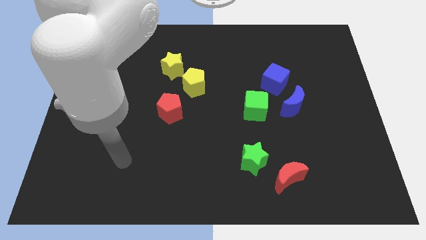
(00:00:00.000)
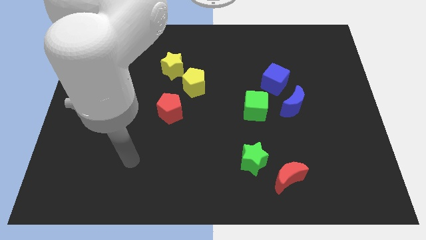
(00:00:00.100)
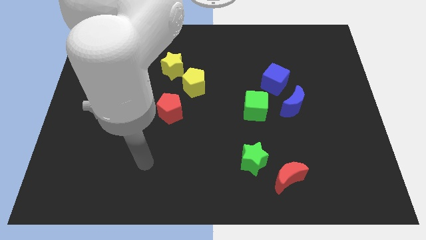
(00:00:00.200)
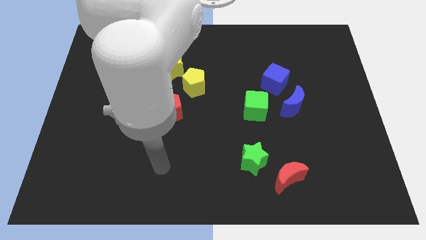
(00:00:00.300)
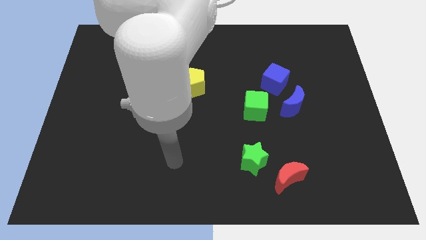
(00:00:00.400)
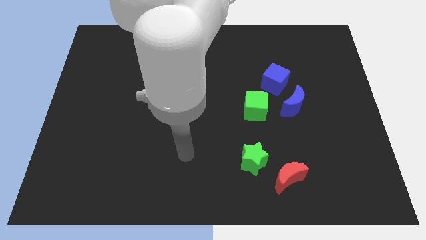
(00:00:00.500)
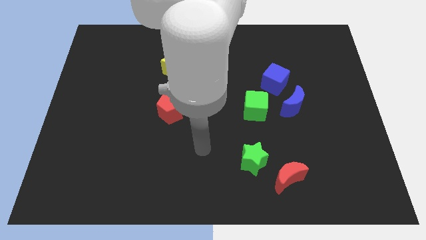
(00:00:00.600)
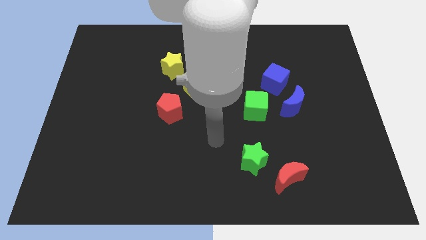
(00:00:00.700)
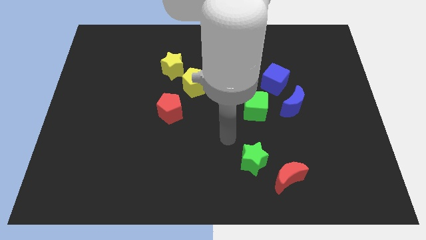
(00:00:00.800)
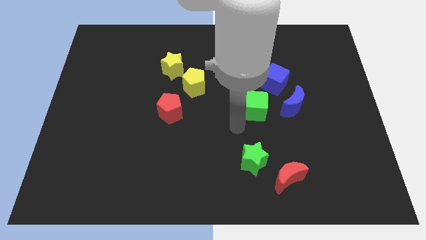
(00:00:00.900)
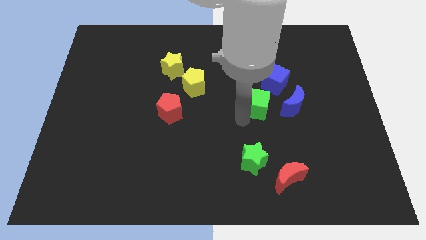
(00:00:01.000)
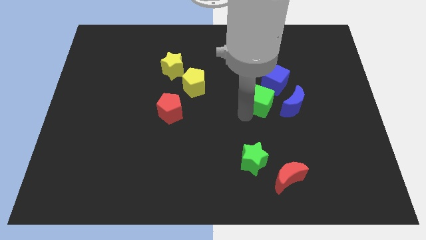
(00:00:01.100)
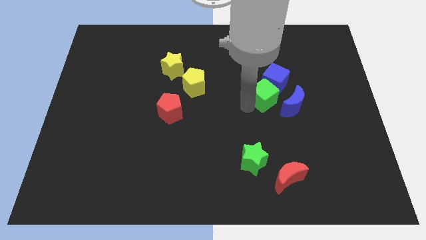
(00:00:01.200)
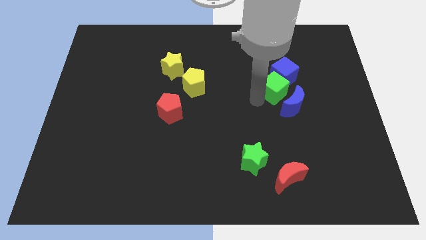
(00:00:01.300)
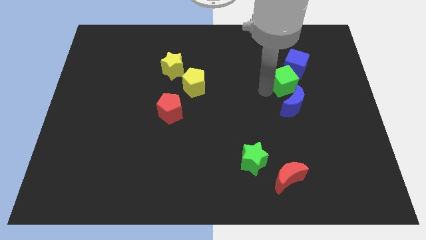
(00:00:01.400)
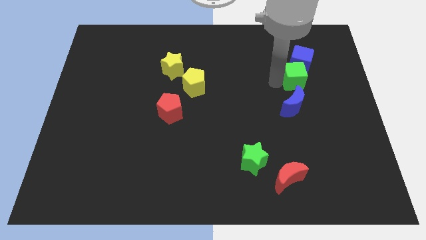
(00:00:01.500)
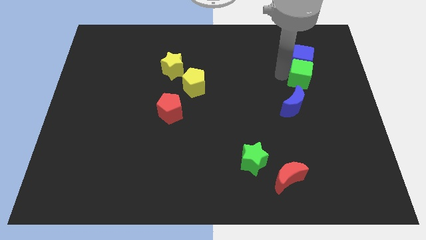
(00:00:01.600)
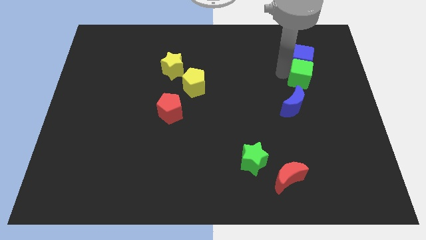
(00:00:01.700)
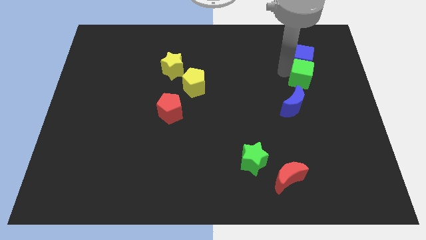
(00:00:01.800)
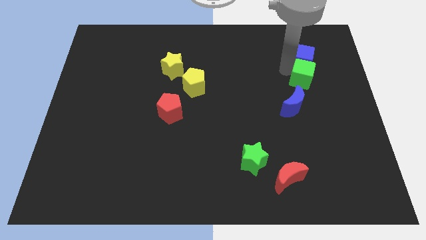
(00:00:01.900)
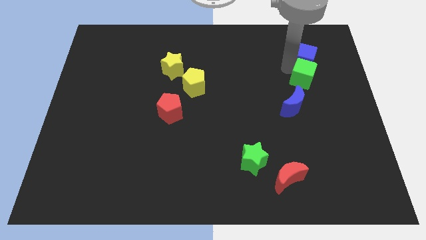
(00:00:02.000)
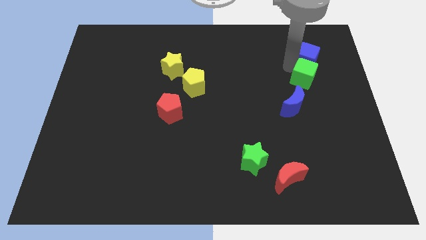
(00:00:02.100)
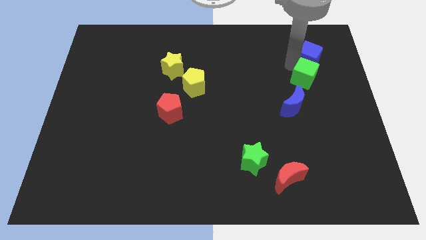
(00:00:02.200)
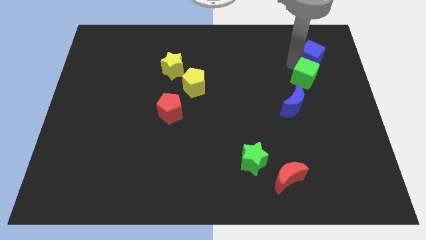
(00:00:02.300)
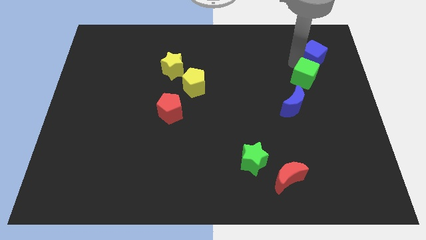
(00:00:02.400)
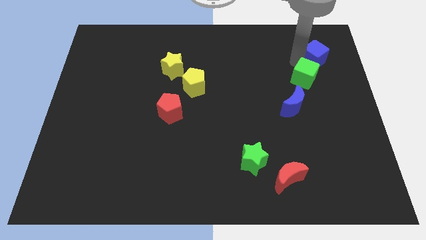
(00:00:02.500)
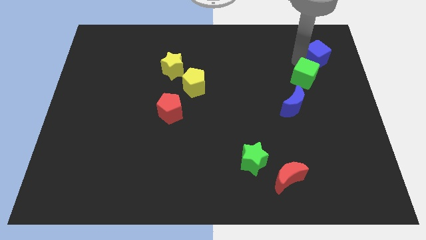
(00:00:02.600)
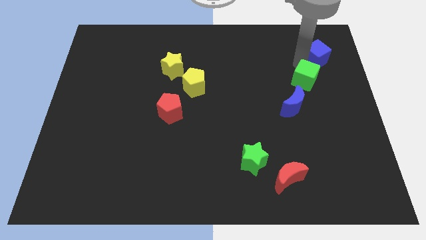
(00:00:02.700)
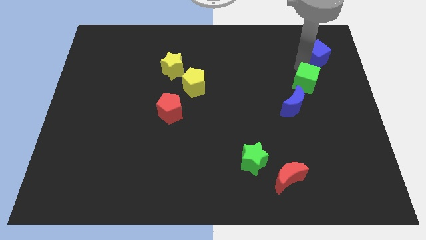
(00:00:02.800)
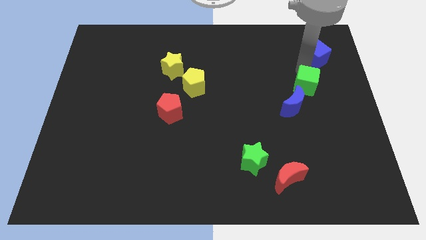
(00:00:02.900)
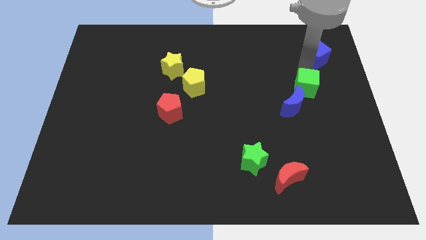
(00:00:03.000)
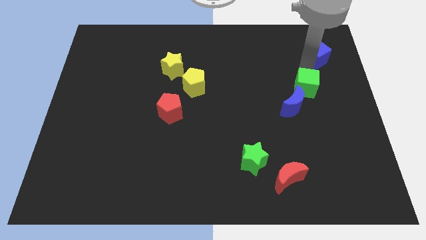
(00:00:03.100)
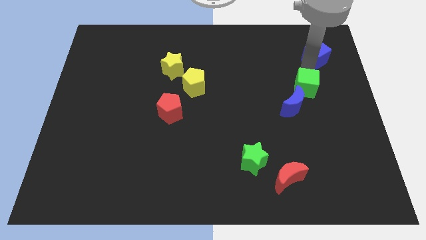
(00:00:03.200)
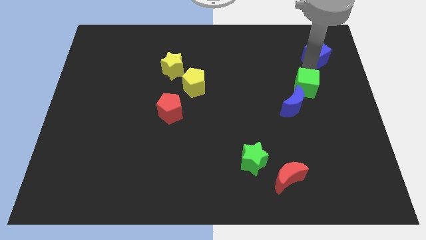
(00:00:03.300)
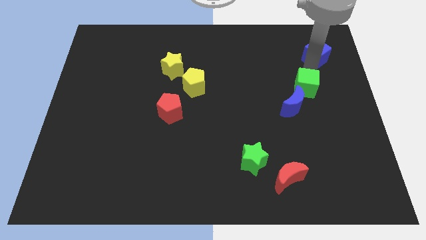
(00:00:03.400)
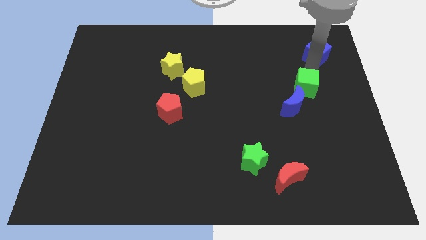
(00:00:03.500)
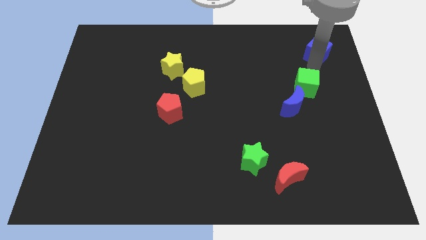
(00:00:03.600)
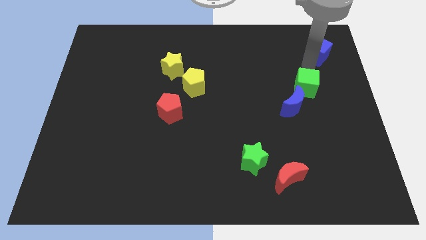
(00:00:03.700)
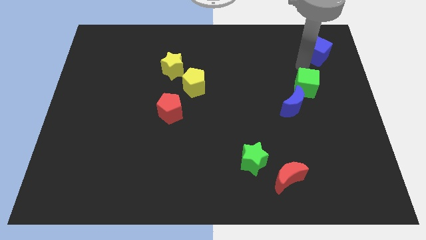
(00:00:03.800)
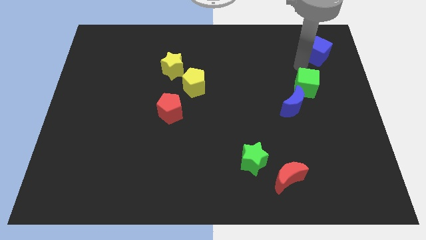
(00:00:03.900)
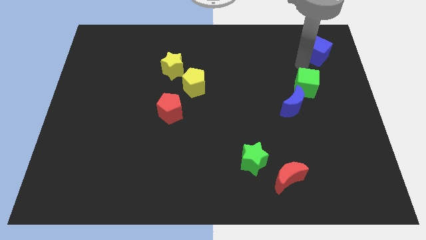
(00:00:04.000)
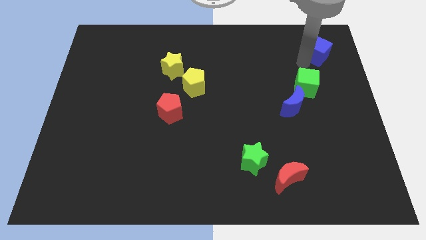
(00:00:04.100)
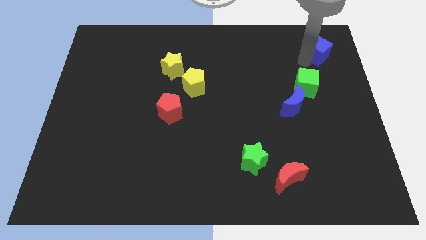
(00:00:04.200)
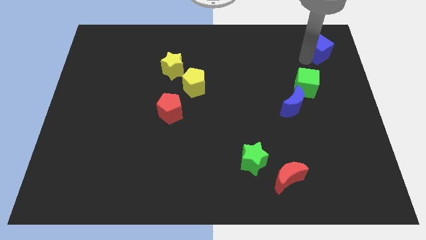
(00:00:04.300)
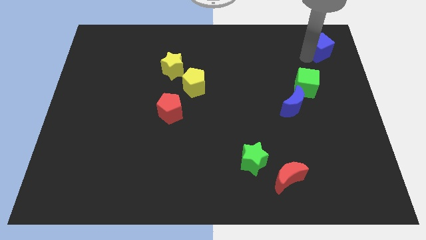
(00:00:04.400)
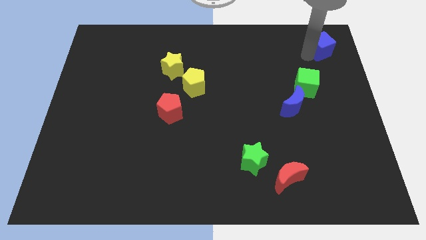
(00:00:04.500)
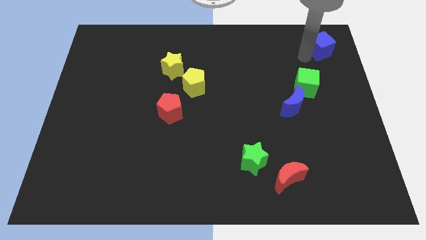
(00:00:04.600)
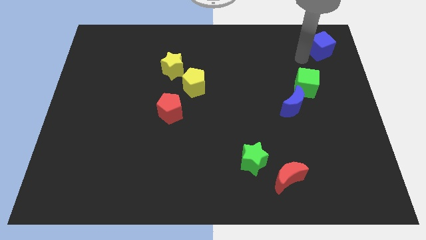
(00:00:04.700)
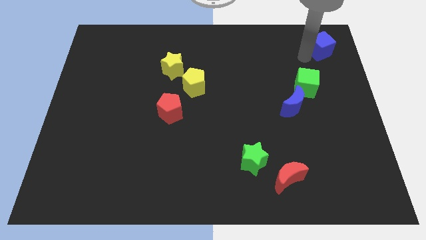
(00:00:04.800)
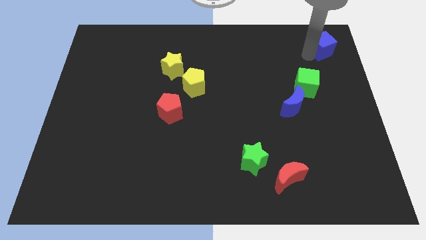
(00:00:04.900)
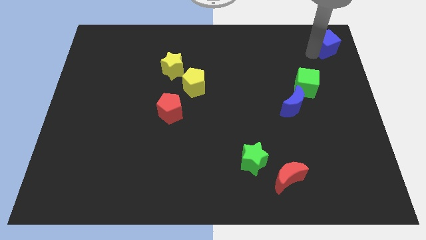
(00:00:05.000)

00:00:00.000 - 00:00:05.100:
move the blue cube to the top right of the board

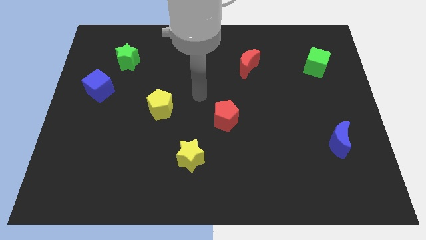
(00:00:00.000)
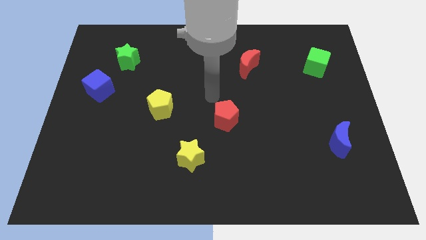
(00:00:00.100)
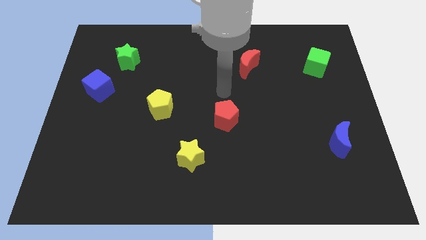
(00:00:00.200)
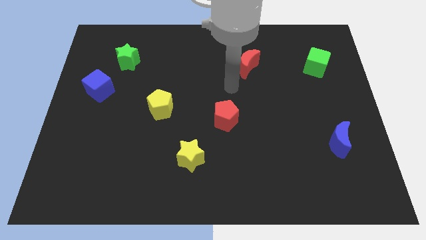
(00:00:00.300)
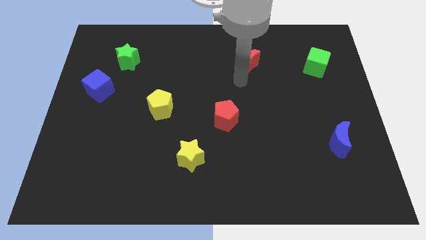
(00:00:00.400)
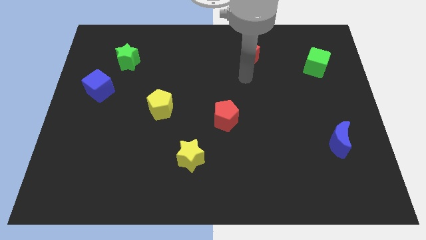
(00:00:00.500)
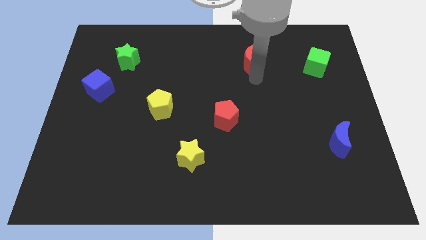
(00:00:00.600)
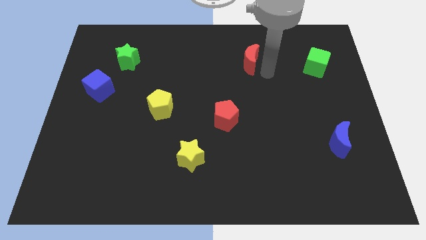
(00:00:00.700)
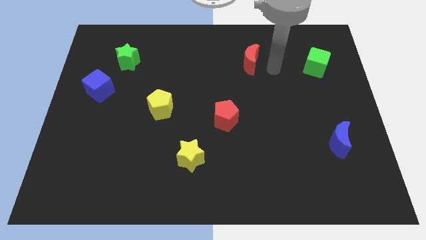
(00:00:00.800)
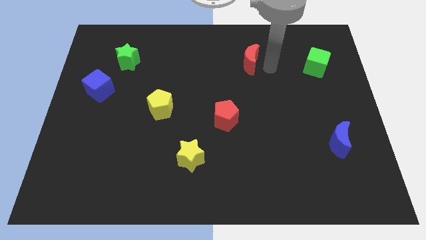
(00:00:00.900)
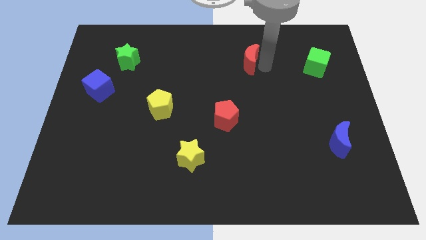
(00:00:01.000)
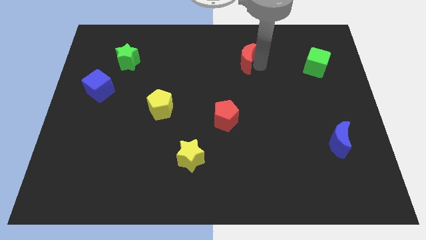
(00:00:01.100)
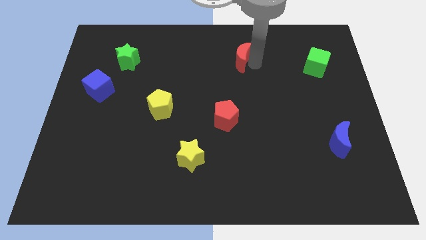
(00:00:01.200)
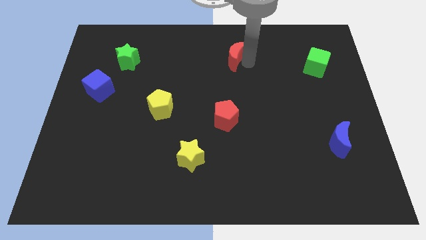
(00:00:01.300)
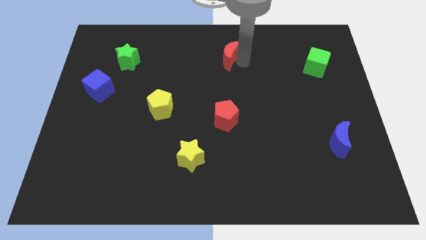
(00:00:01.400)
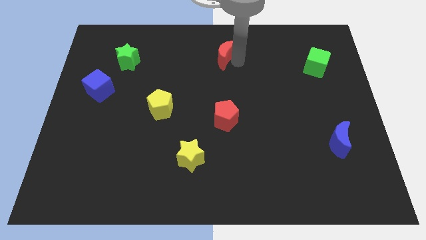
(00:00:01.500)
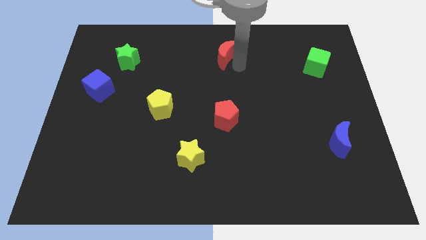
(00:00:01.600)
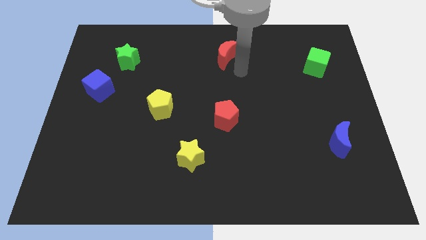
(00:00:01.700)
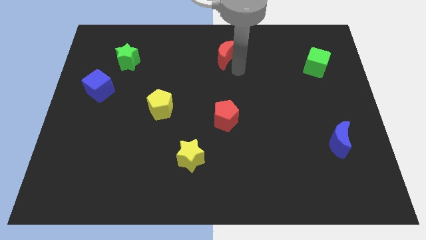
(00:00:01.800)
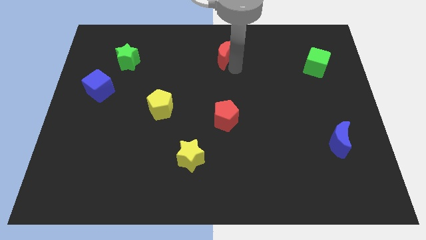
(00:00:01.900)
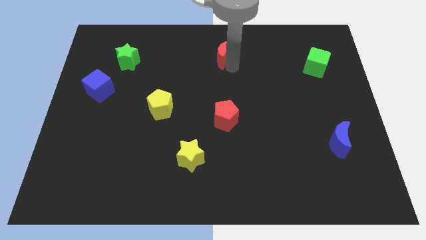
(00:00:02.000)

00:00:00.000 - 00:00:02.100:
move the red moon to the top
